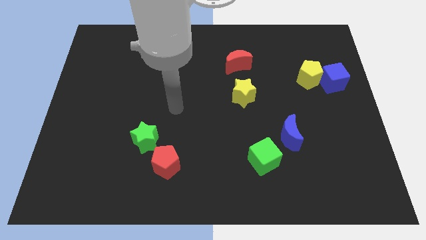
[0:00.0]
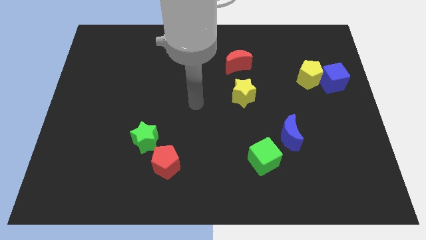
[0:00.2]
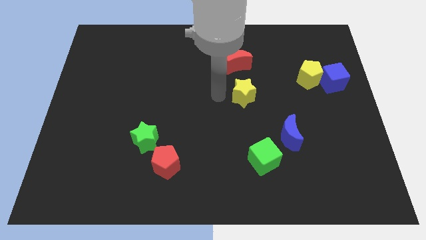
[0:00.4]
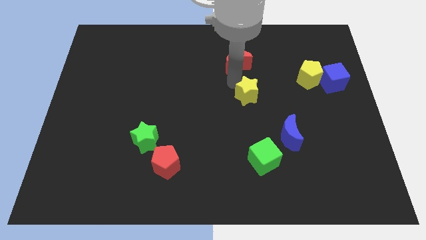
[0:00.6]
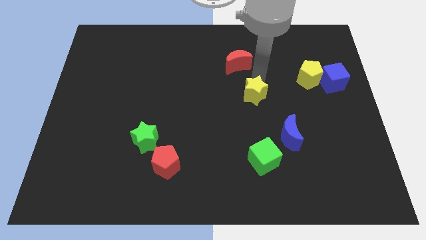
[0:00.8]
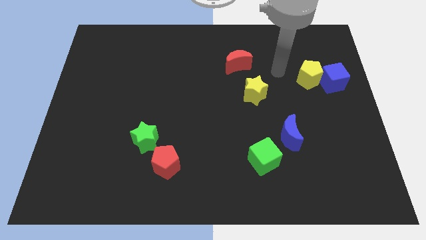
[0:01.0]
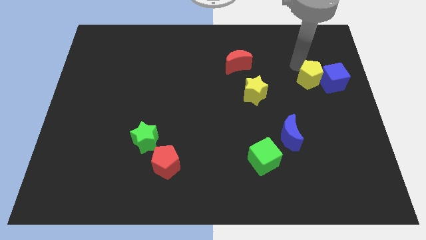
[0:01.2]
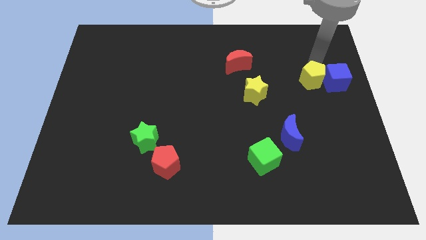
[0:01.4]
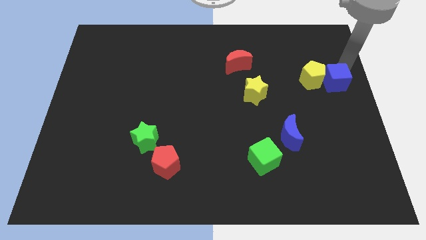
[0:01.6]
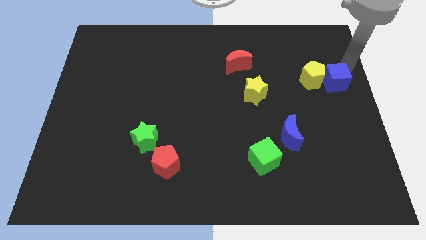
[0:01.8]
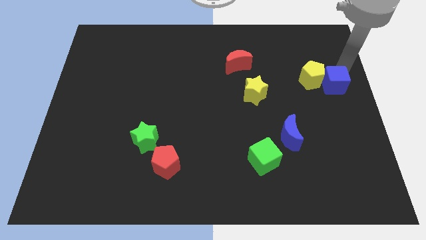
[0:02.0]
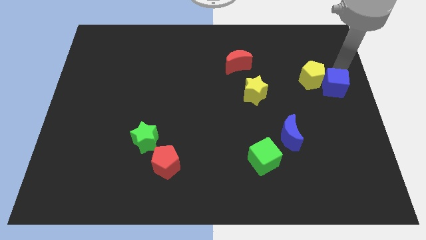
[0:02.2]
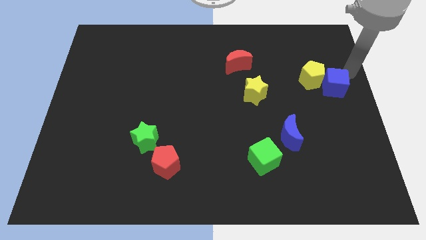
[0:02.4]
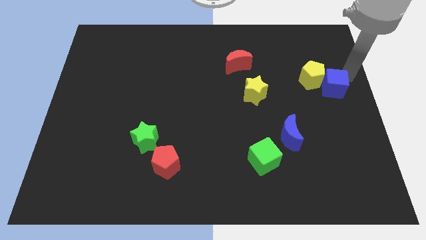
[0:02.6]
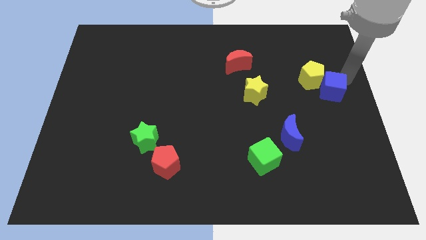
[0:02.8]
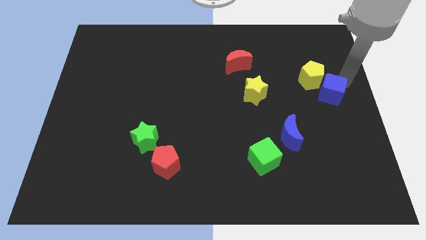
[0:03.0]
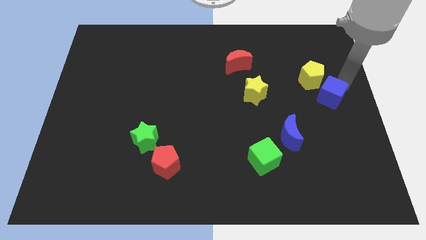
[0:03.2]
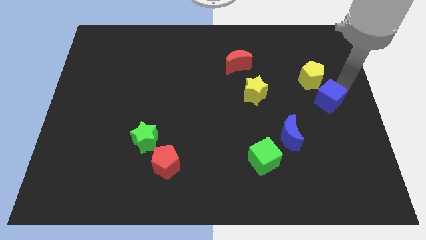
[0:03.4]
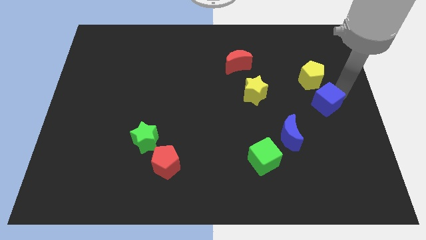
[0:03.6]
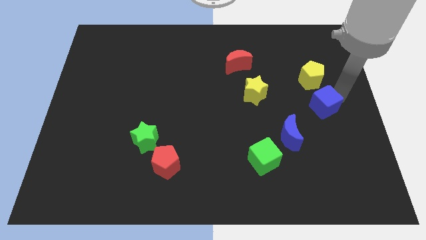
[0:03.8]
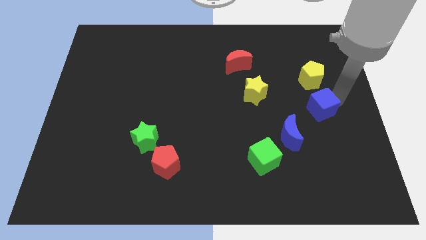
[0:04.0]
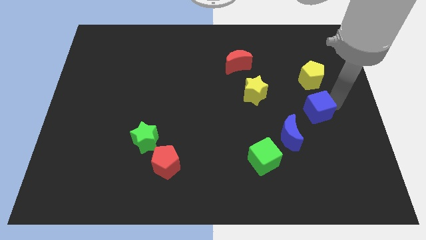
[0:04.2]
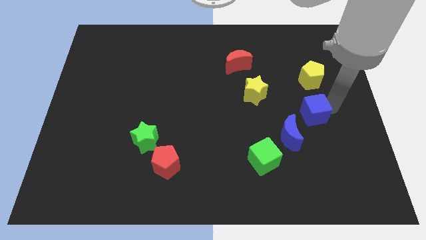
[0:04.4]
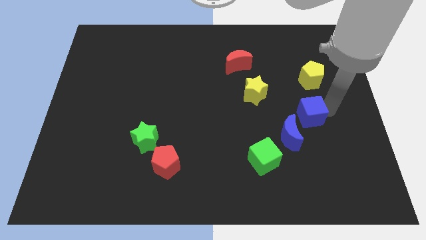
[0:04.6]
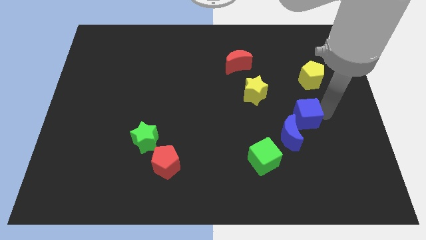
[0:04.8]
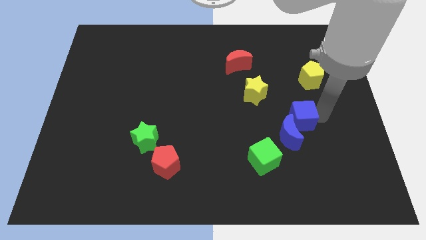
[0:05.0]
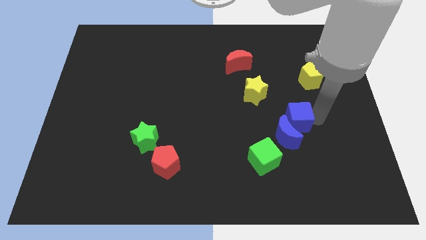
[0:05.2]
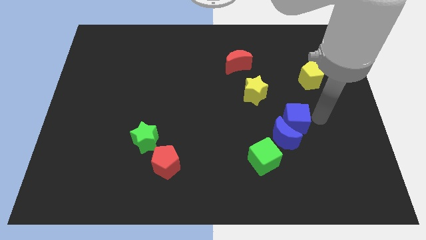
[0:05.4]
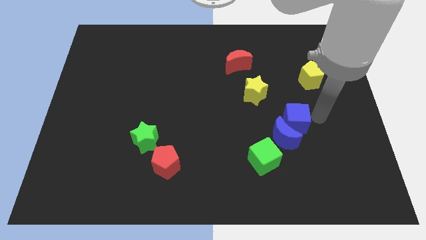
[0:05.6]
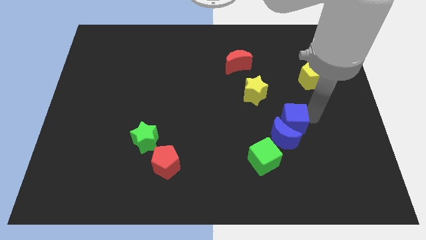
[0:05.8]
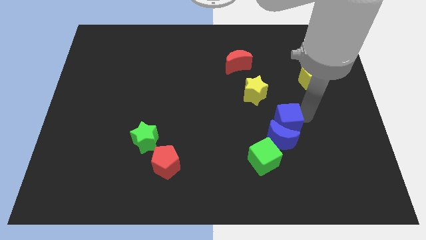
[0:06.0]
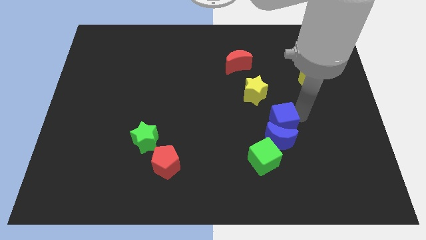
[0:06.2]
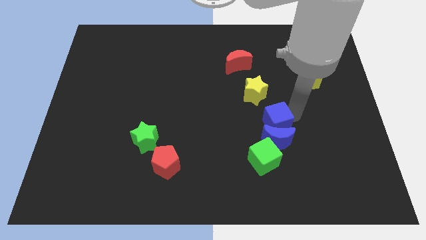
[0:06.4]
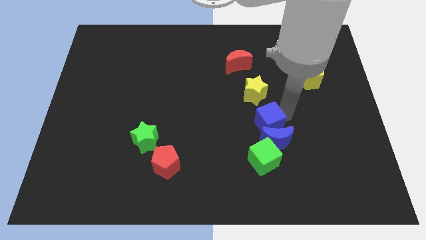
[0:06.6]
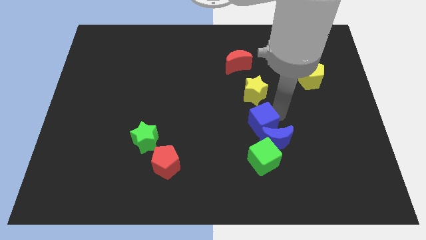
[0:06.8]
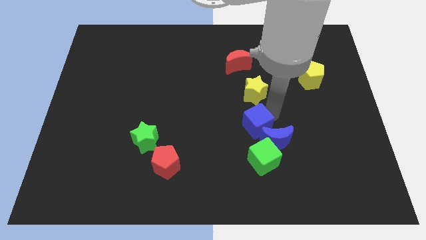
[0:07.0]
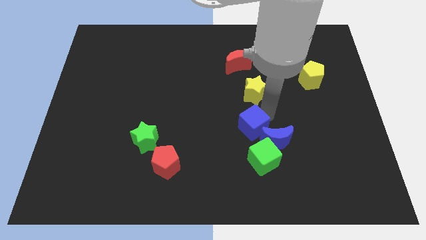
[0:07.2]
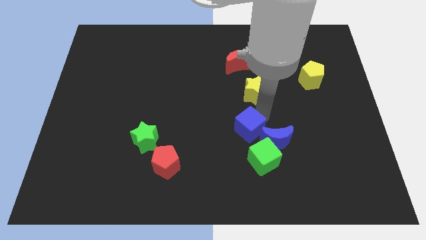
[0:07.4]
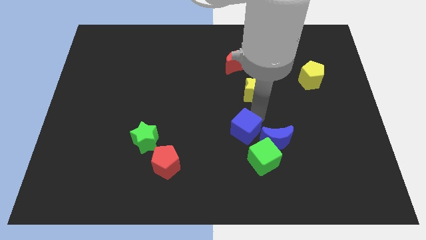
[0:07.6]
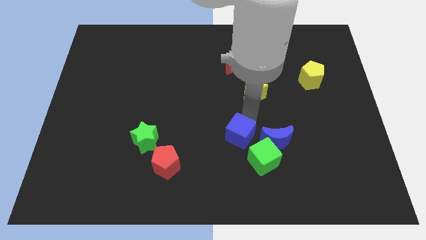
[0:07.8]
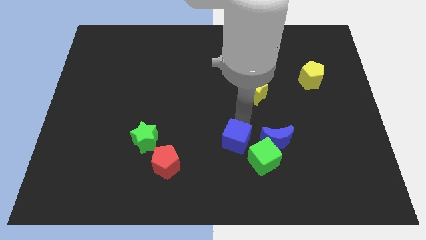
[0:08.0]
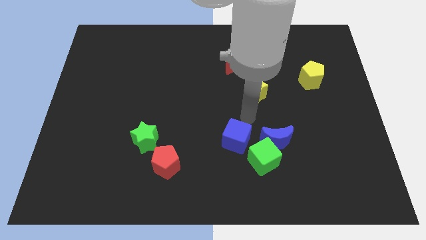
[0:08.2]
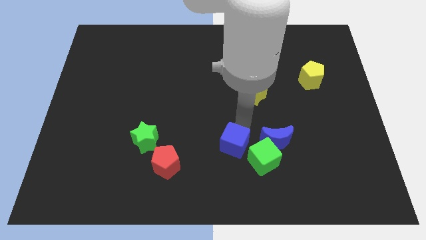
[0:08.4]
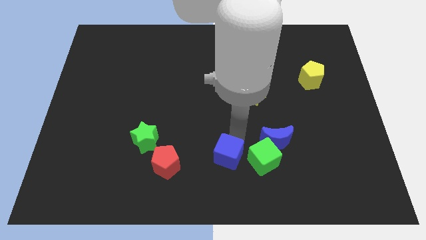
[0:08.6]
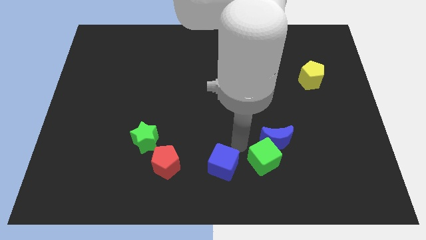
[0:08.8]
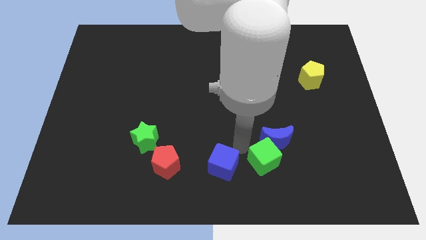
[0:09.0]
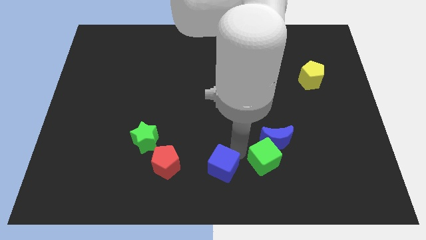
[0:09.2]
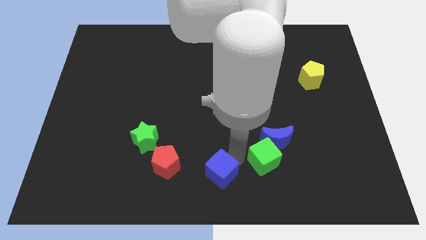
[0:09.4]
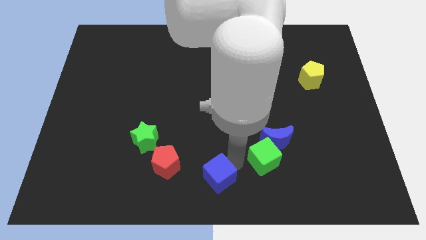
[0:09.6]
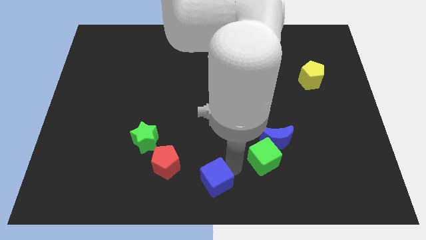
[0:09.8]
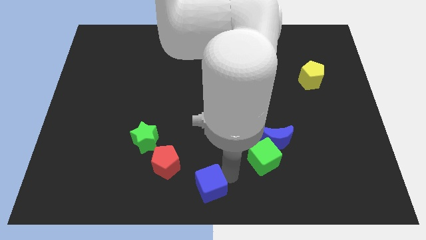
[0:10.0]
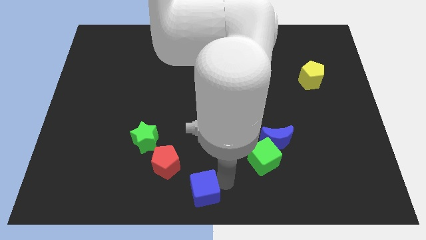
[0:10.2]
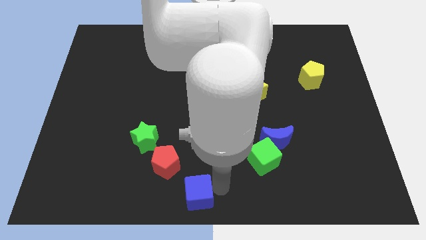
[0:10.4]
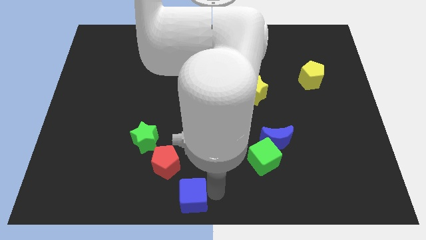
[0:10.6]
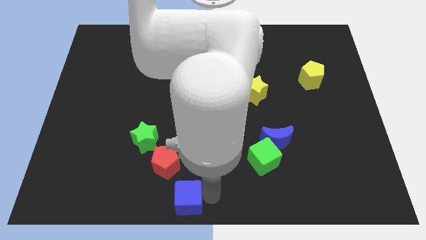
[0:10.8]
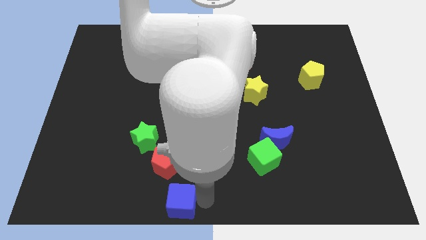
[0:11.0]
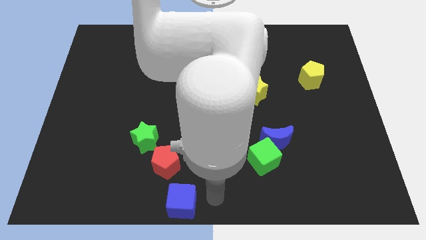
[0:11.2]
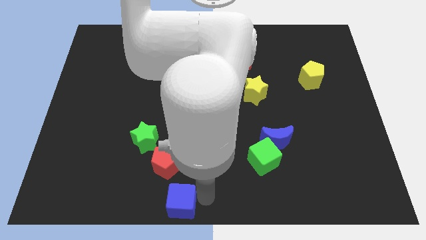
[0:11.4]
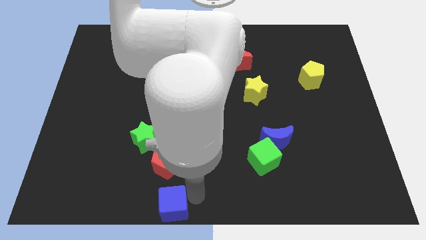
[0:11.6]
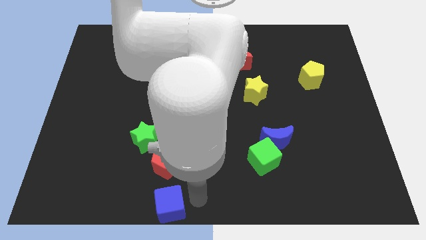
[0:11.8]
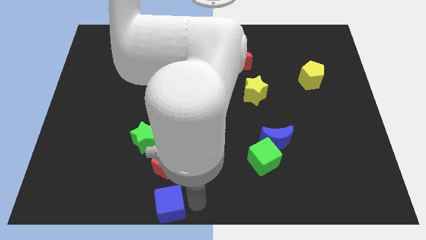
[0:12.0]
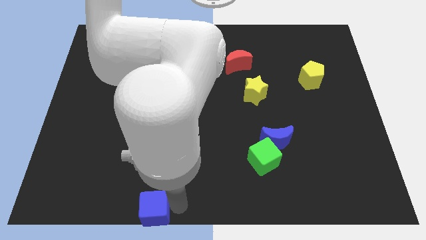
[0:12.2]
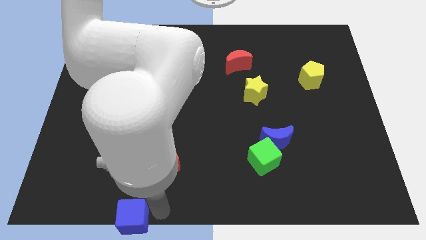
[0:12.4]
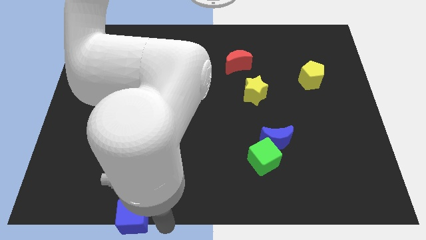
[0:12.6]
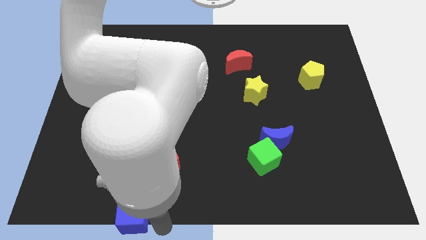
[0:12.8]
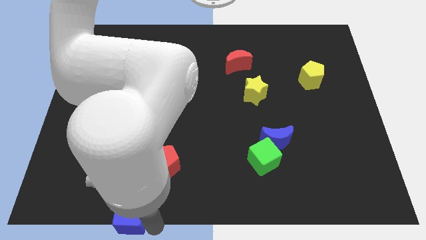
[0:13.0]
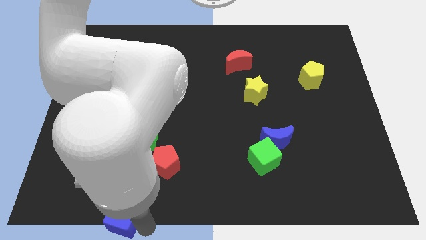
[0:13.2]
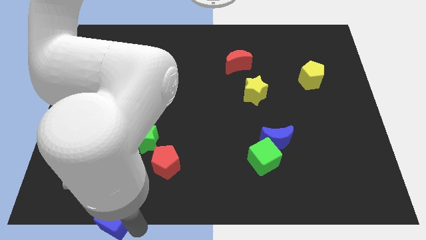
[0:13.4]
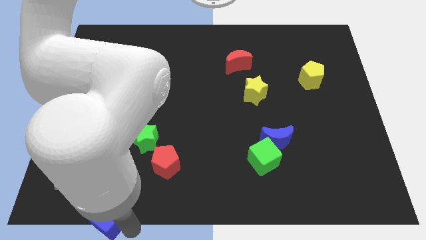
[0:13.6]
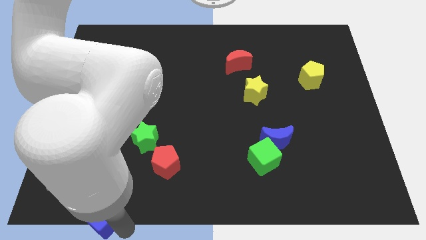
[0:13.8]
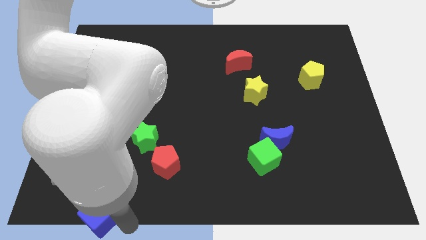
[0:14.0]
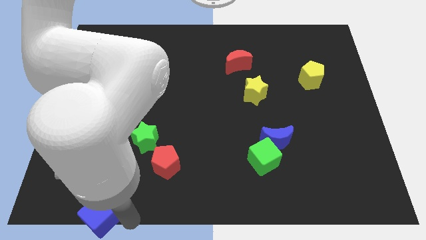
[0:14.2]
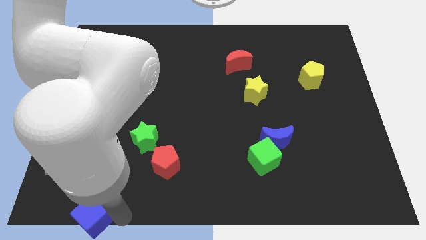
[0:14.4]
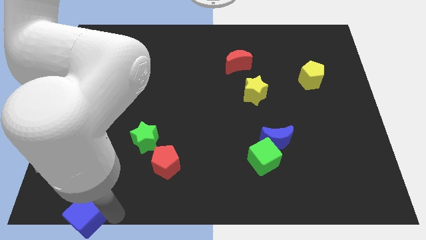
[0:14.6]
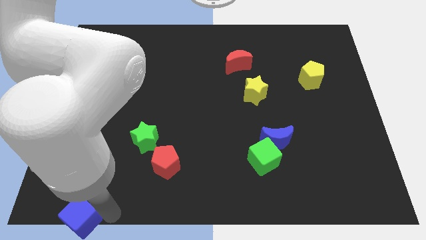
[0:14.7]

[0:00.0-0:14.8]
move the blue cube to the lower left corner
